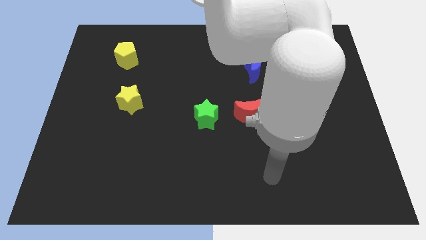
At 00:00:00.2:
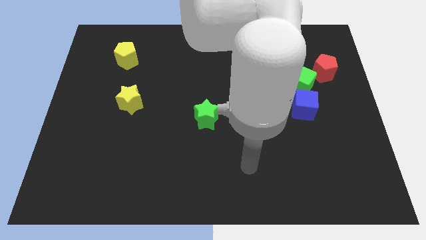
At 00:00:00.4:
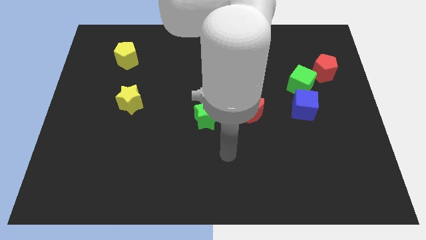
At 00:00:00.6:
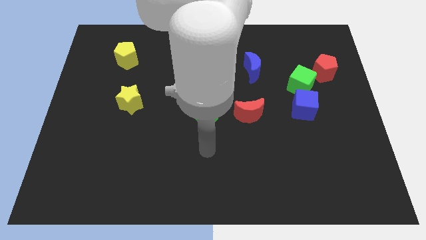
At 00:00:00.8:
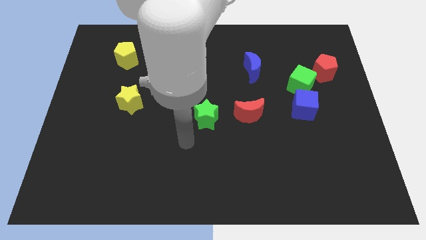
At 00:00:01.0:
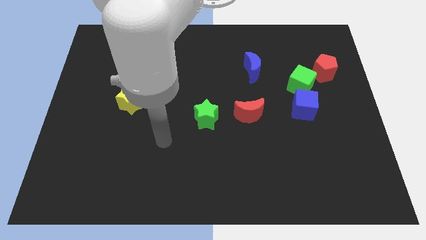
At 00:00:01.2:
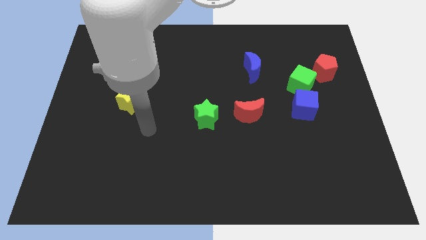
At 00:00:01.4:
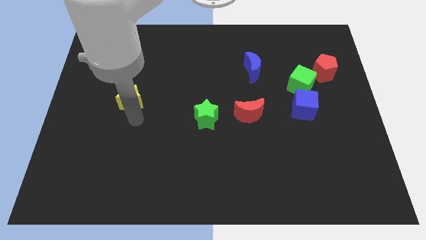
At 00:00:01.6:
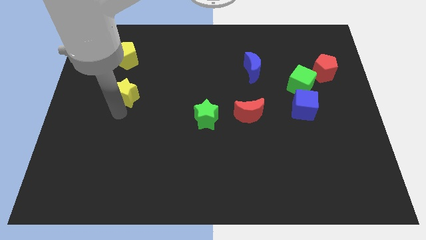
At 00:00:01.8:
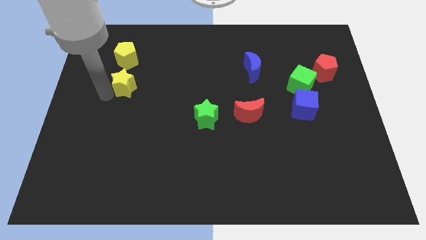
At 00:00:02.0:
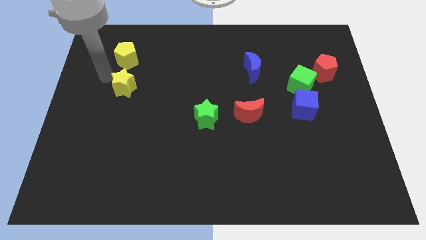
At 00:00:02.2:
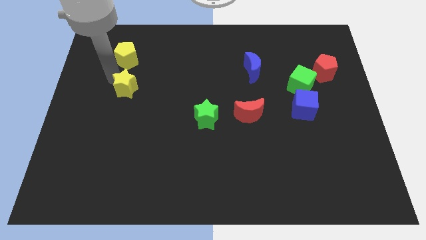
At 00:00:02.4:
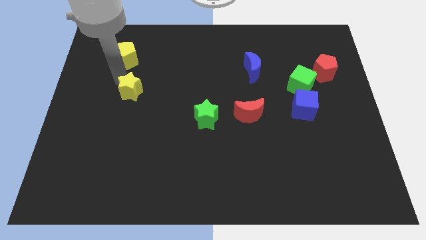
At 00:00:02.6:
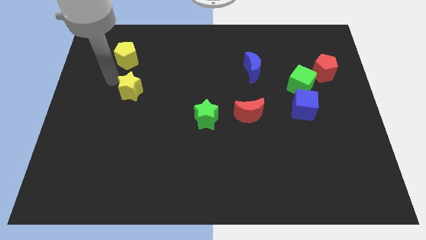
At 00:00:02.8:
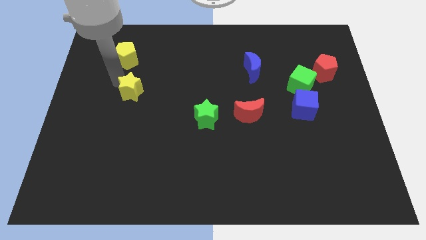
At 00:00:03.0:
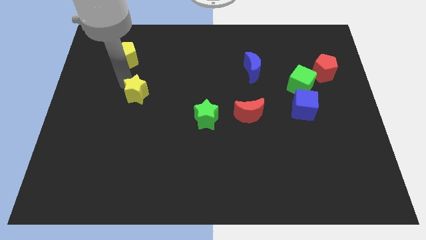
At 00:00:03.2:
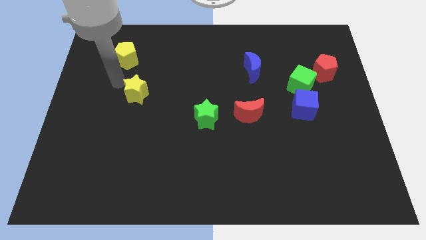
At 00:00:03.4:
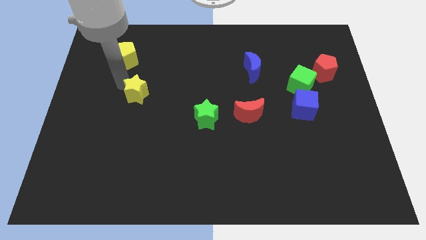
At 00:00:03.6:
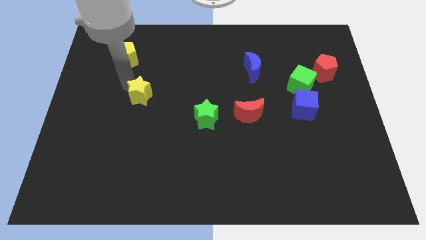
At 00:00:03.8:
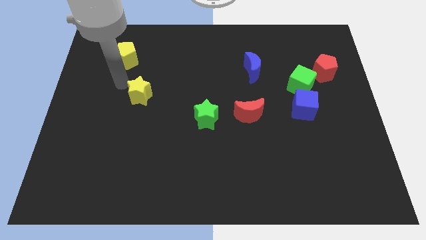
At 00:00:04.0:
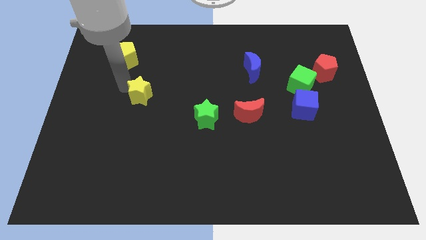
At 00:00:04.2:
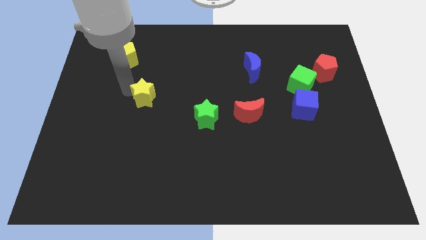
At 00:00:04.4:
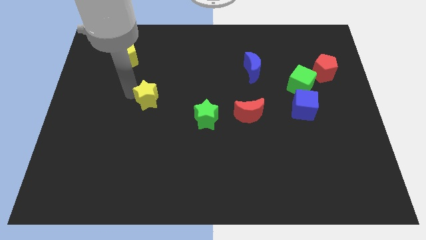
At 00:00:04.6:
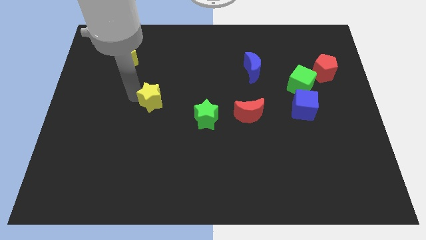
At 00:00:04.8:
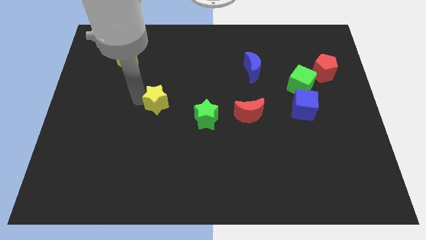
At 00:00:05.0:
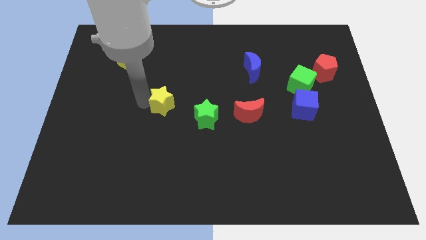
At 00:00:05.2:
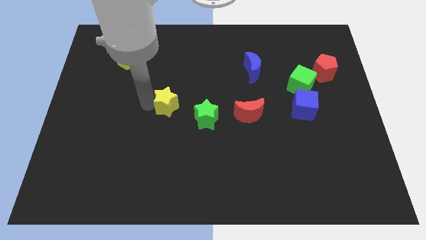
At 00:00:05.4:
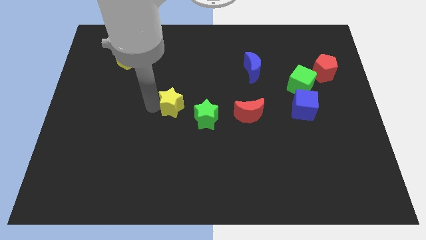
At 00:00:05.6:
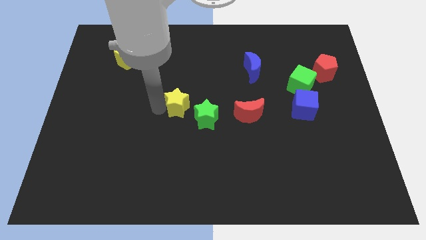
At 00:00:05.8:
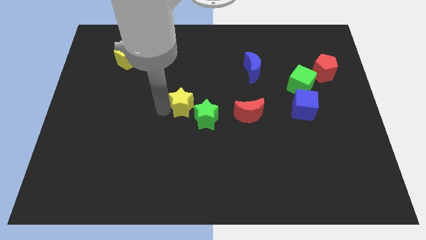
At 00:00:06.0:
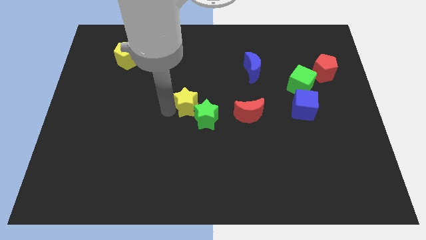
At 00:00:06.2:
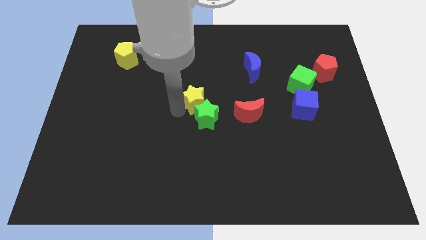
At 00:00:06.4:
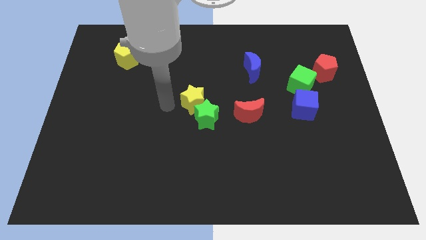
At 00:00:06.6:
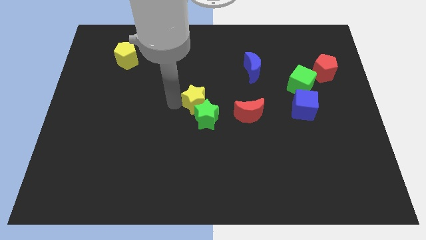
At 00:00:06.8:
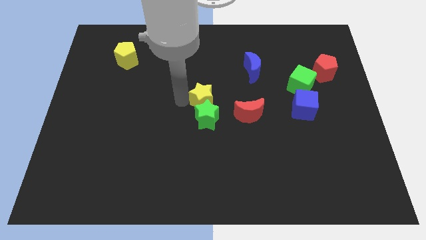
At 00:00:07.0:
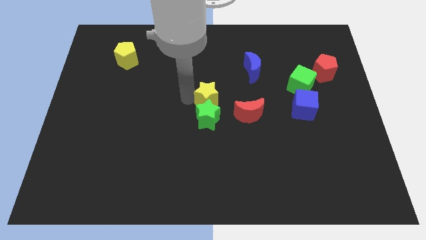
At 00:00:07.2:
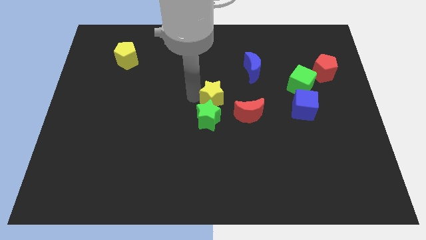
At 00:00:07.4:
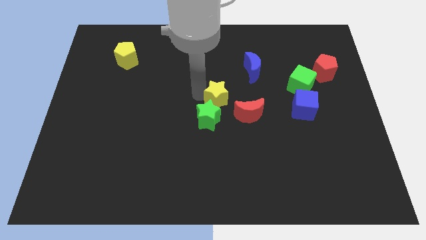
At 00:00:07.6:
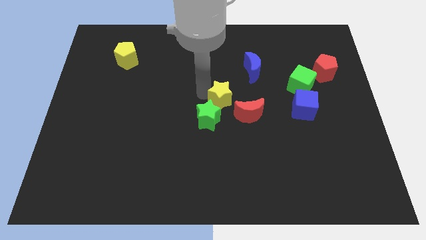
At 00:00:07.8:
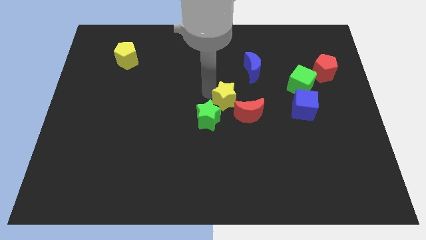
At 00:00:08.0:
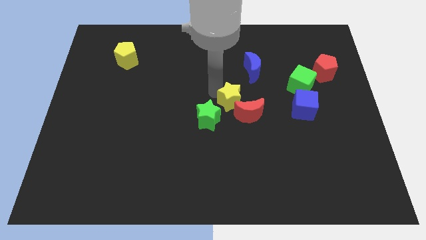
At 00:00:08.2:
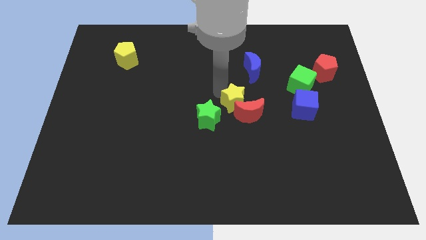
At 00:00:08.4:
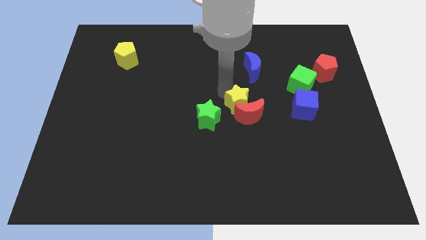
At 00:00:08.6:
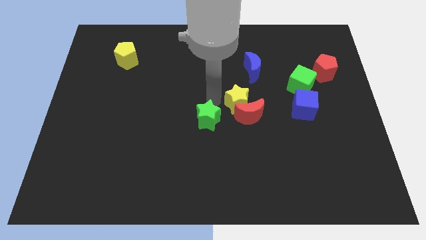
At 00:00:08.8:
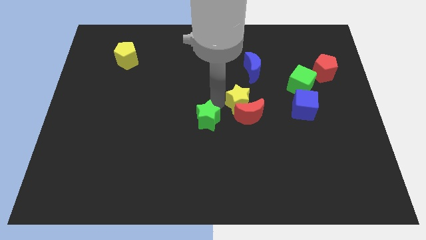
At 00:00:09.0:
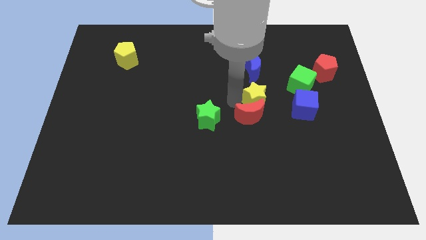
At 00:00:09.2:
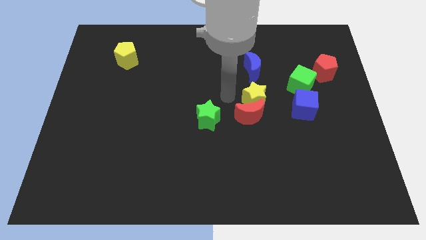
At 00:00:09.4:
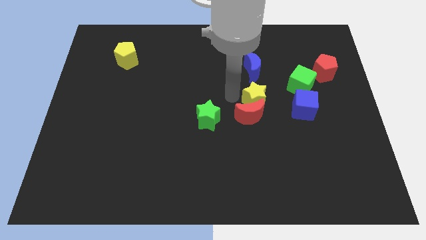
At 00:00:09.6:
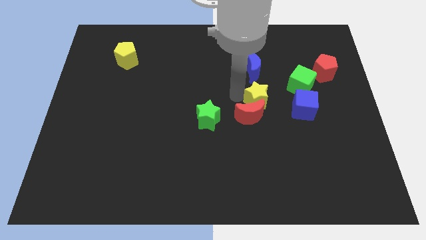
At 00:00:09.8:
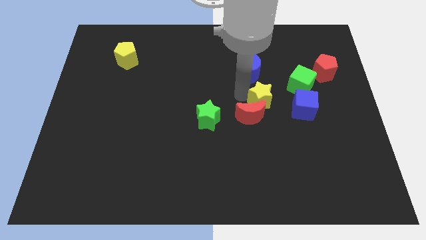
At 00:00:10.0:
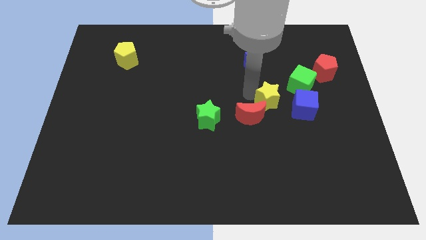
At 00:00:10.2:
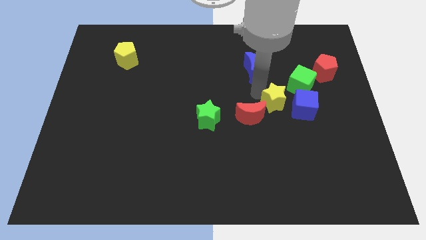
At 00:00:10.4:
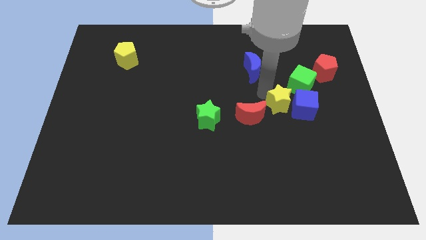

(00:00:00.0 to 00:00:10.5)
push the yellow star towards the blue cube

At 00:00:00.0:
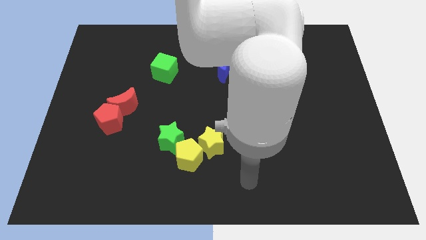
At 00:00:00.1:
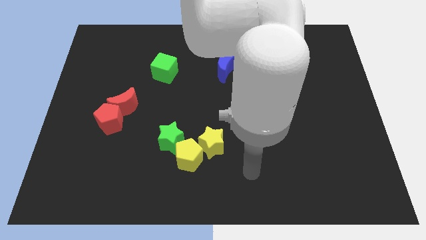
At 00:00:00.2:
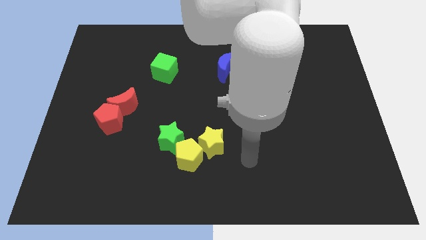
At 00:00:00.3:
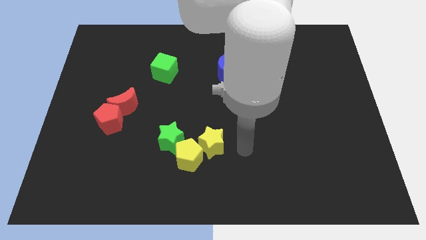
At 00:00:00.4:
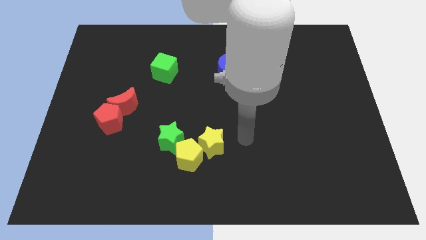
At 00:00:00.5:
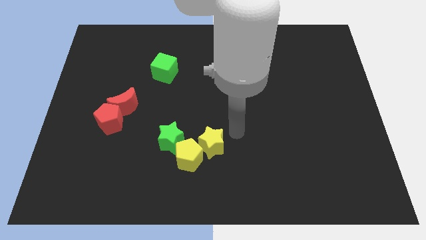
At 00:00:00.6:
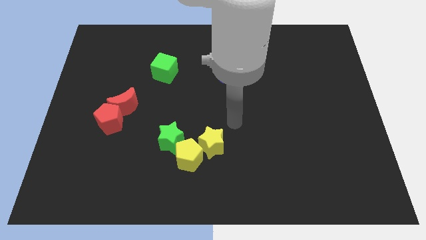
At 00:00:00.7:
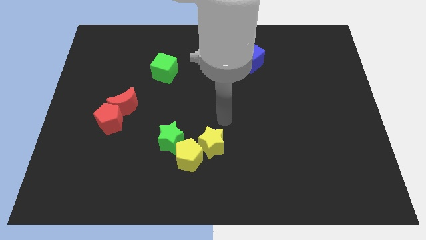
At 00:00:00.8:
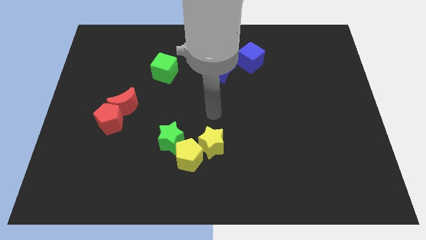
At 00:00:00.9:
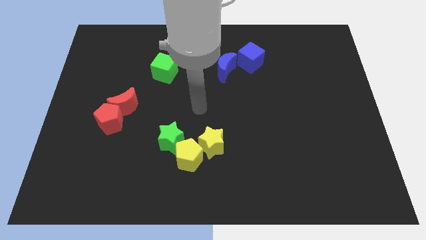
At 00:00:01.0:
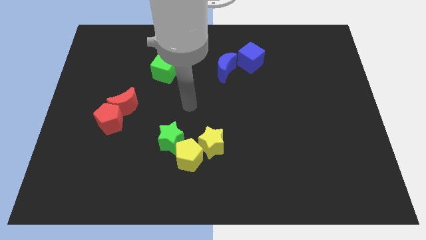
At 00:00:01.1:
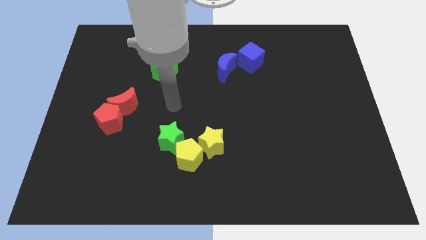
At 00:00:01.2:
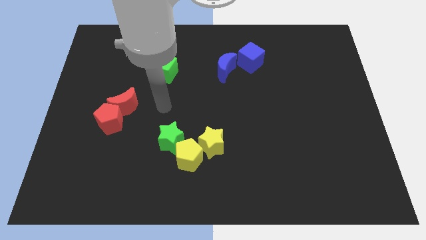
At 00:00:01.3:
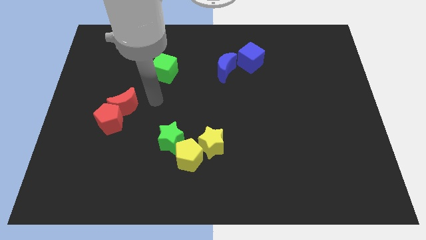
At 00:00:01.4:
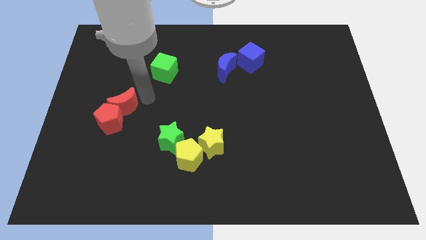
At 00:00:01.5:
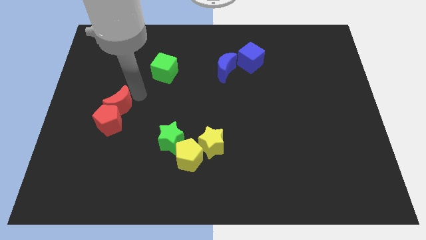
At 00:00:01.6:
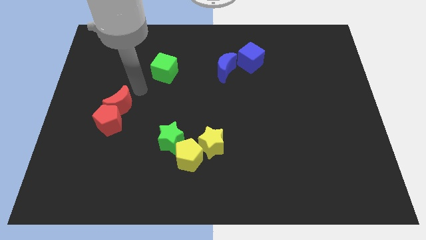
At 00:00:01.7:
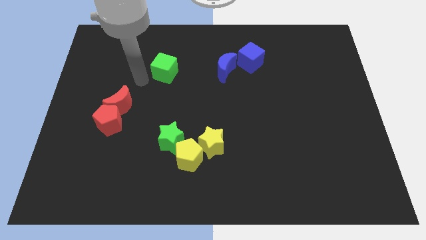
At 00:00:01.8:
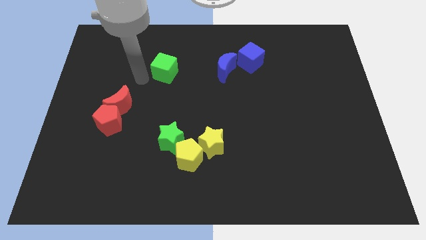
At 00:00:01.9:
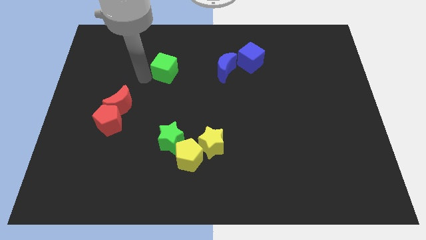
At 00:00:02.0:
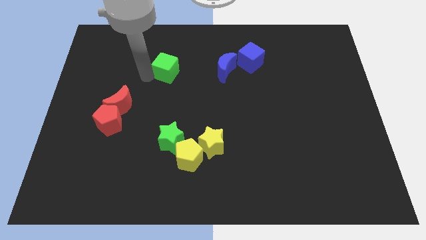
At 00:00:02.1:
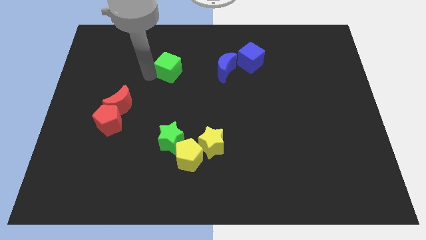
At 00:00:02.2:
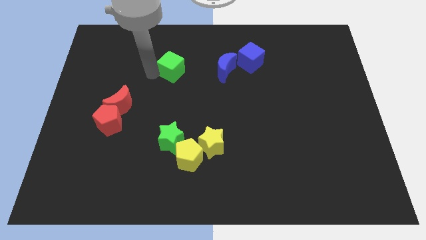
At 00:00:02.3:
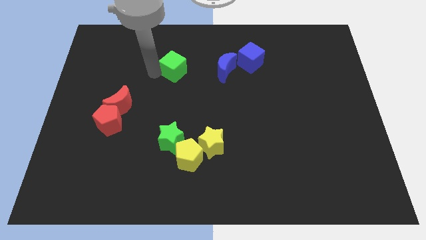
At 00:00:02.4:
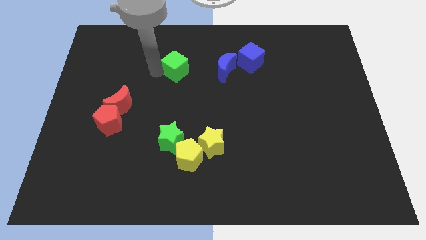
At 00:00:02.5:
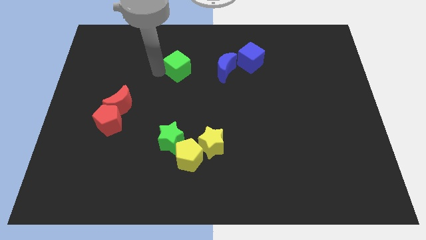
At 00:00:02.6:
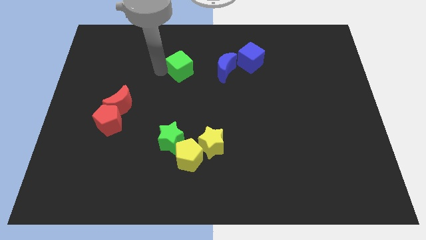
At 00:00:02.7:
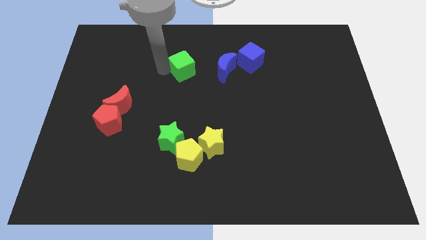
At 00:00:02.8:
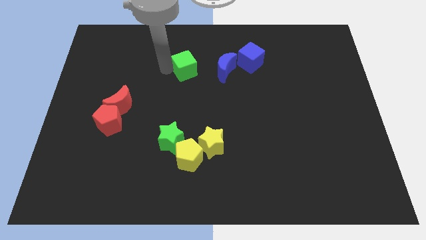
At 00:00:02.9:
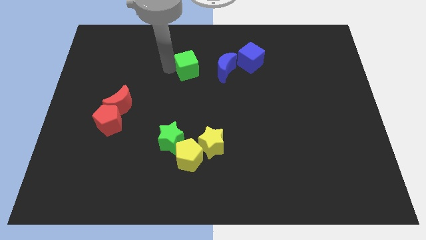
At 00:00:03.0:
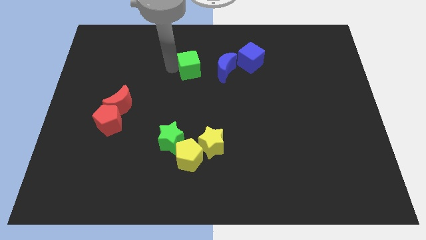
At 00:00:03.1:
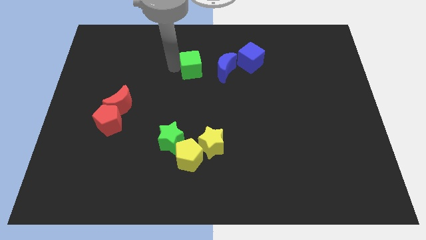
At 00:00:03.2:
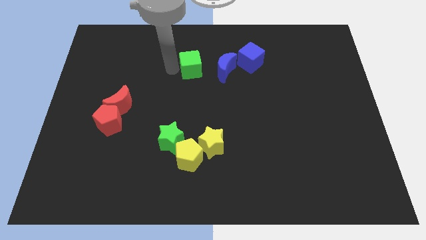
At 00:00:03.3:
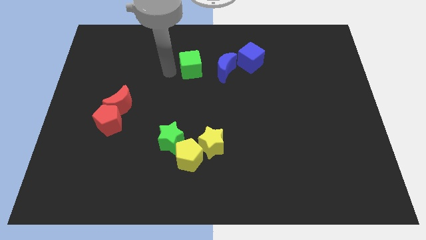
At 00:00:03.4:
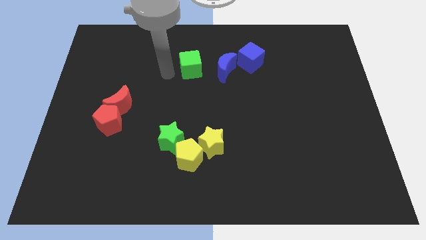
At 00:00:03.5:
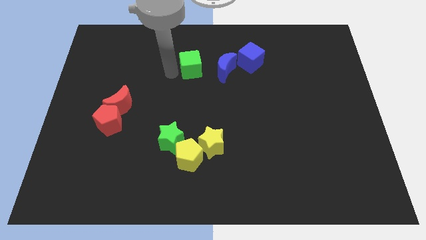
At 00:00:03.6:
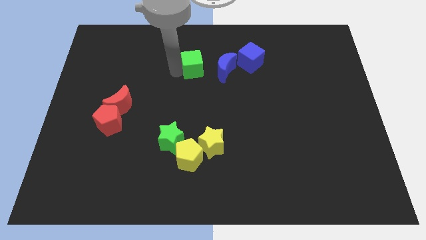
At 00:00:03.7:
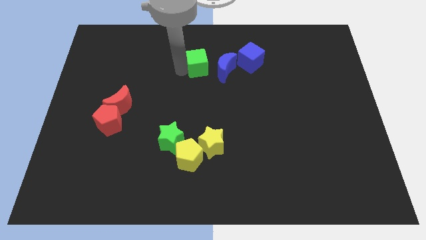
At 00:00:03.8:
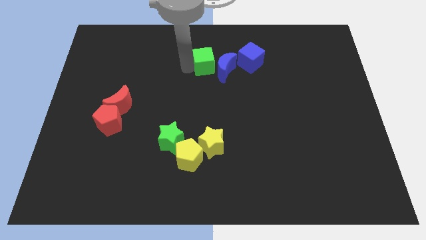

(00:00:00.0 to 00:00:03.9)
push the green cube to the blue moon
